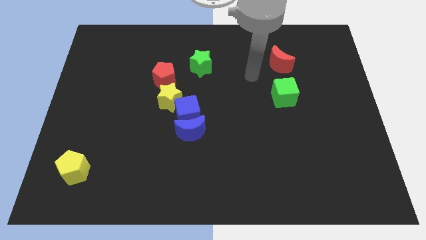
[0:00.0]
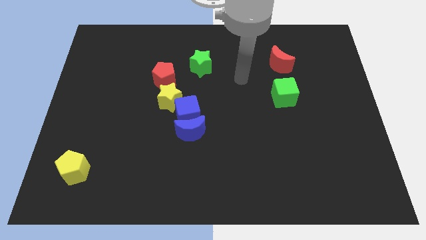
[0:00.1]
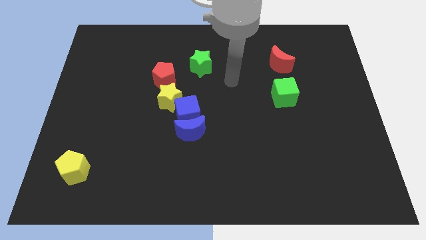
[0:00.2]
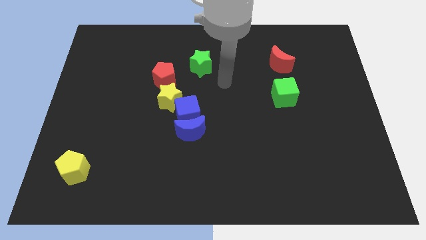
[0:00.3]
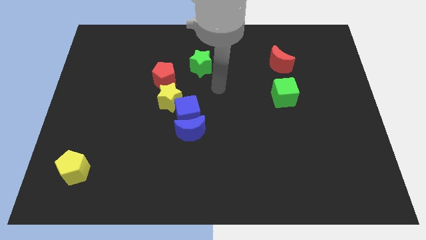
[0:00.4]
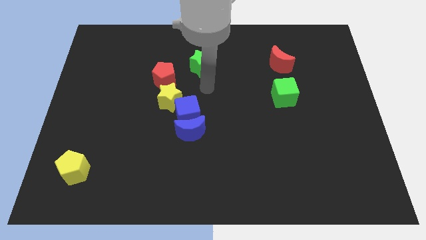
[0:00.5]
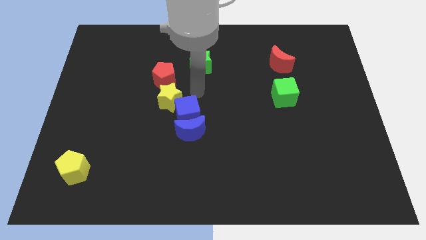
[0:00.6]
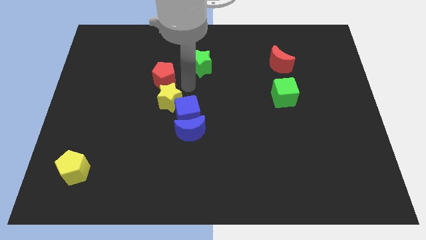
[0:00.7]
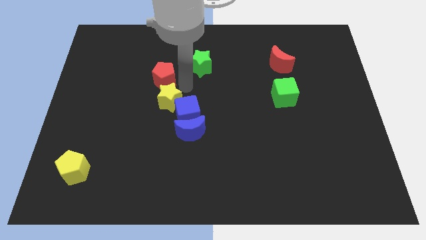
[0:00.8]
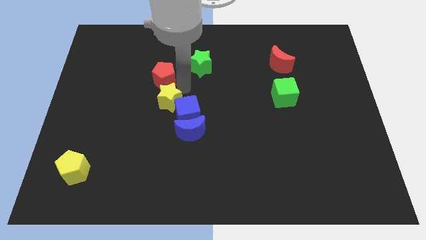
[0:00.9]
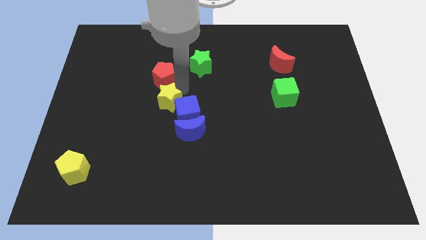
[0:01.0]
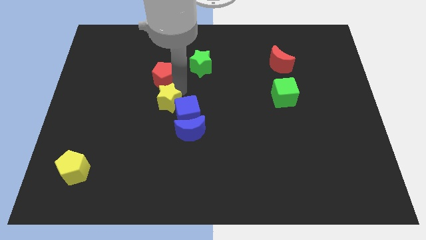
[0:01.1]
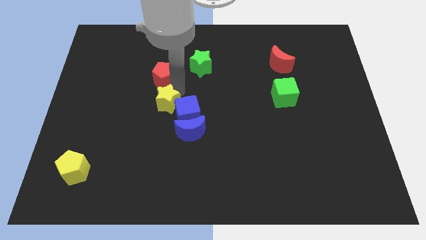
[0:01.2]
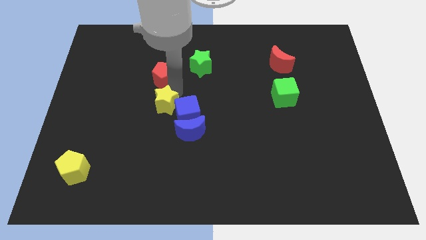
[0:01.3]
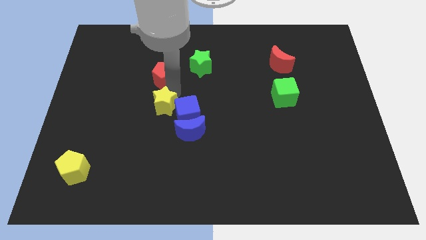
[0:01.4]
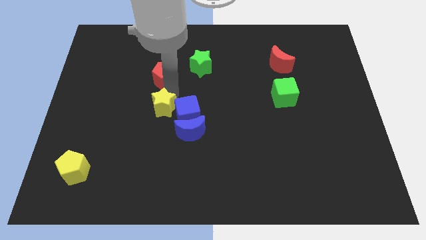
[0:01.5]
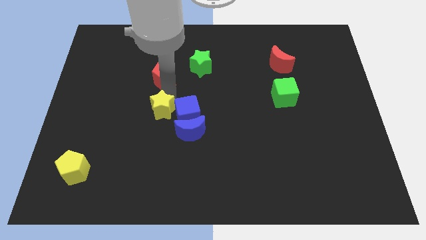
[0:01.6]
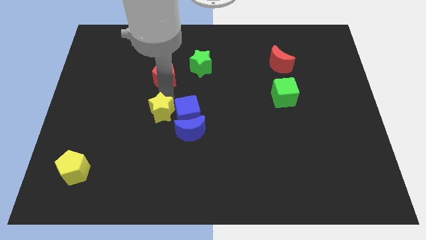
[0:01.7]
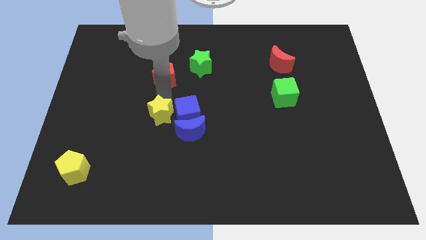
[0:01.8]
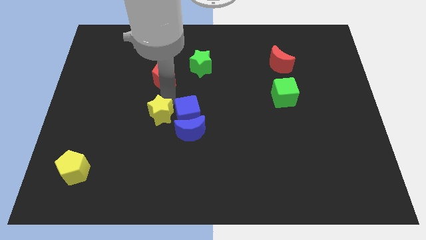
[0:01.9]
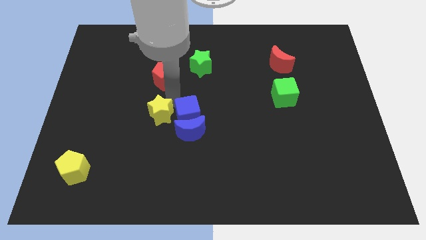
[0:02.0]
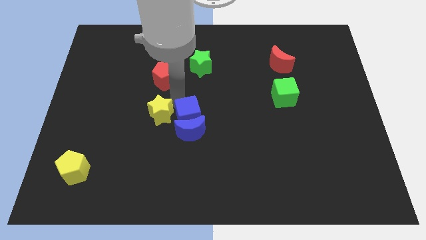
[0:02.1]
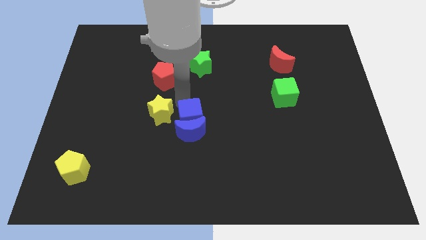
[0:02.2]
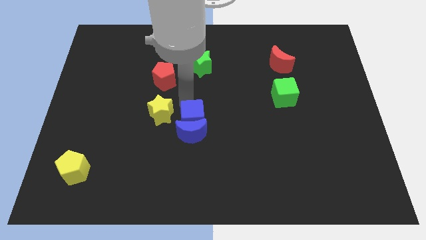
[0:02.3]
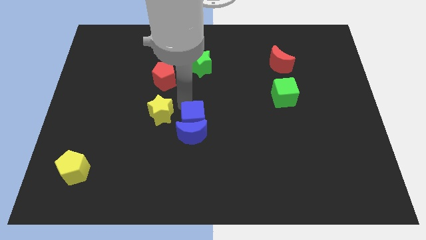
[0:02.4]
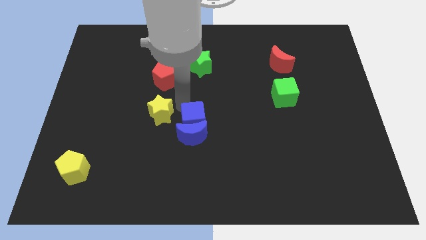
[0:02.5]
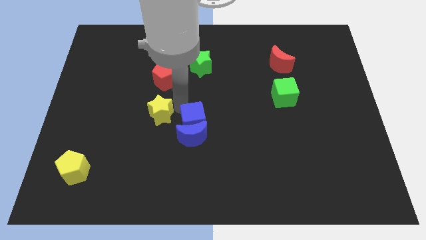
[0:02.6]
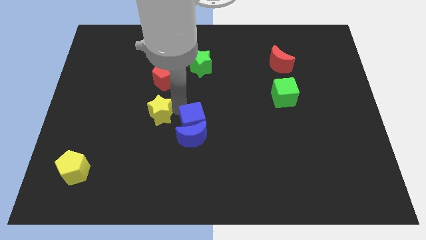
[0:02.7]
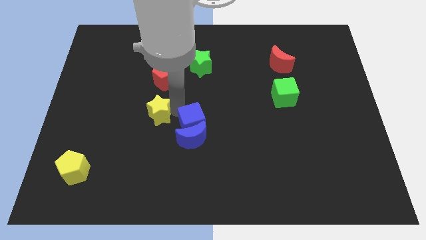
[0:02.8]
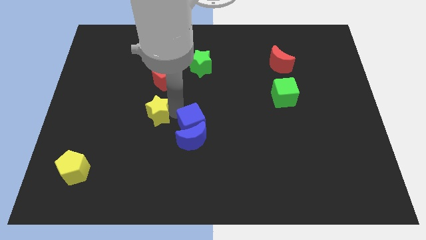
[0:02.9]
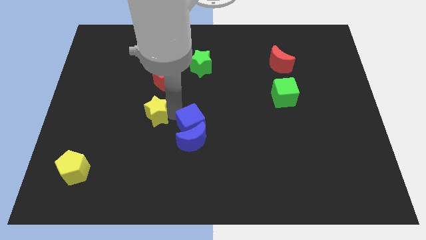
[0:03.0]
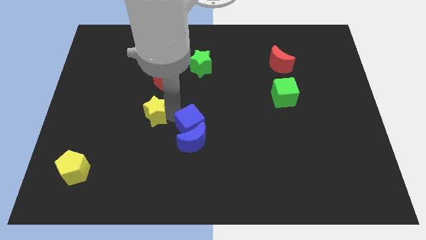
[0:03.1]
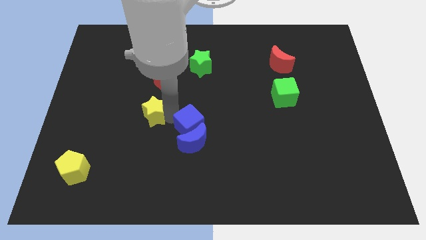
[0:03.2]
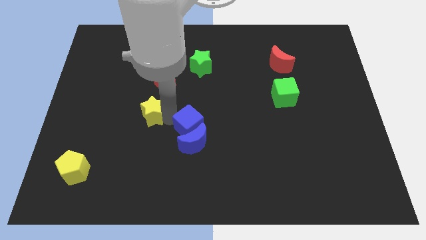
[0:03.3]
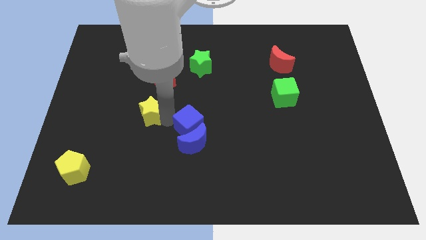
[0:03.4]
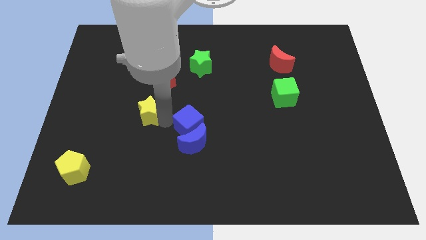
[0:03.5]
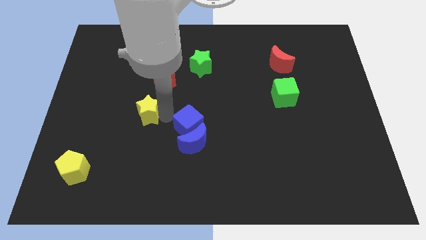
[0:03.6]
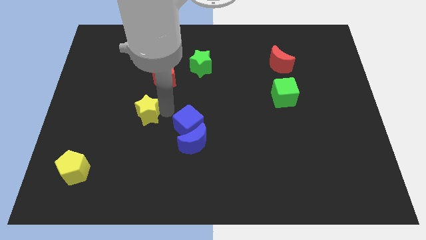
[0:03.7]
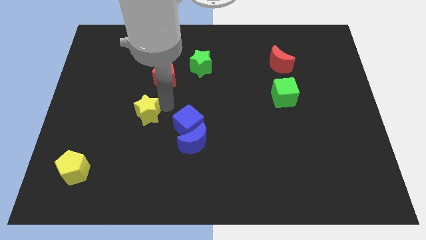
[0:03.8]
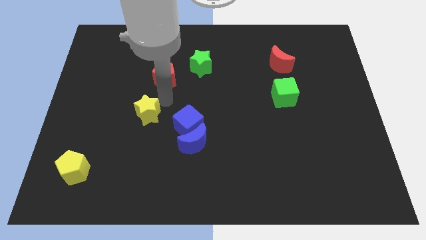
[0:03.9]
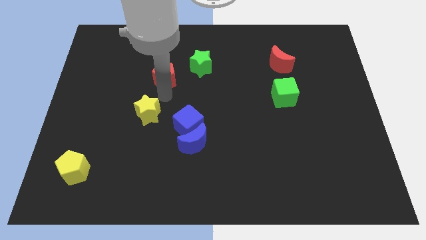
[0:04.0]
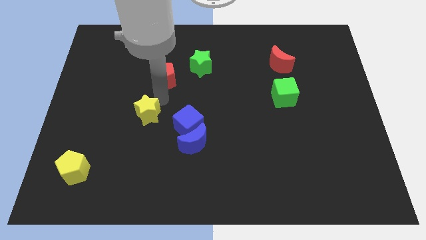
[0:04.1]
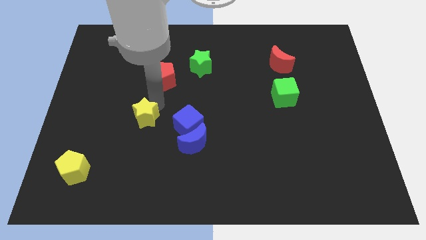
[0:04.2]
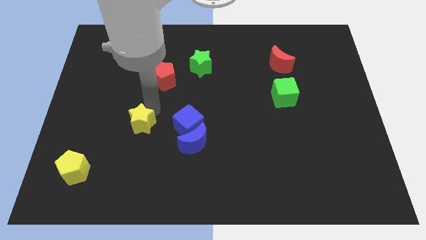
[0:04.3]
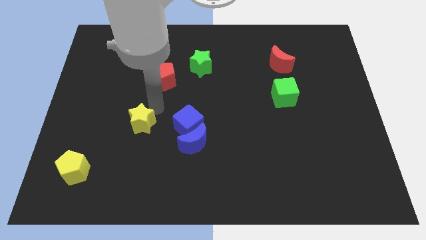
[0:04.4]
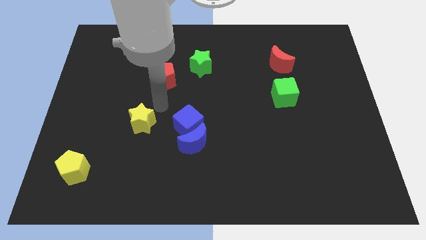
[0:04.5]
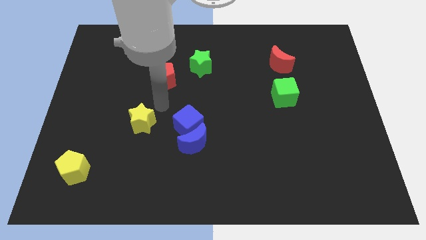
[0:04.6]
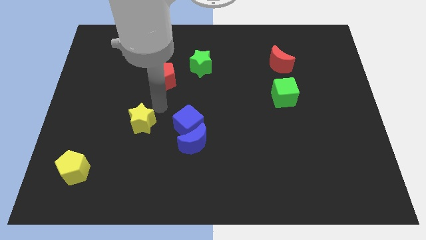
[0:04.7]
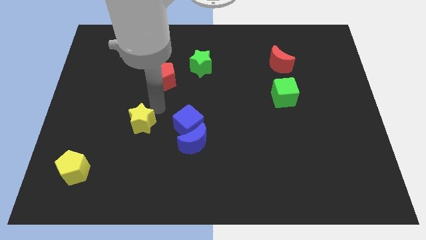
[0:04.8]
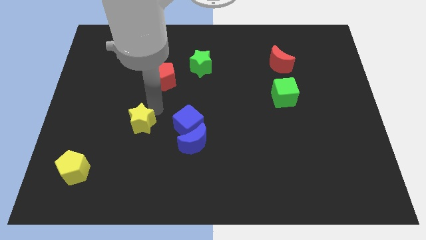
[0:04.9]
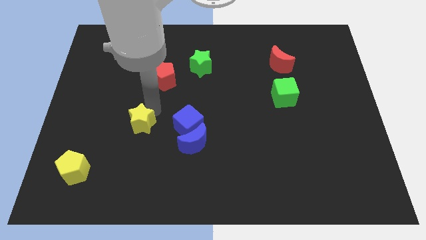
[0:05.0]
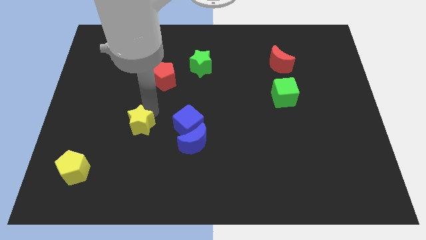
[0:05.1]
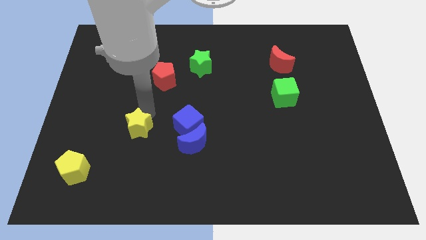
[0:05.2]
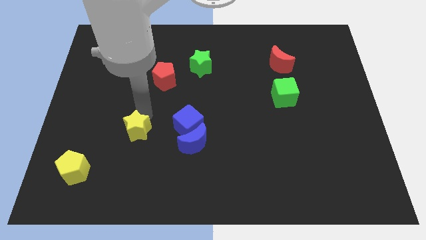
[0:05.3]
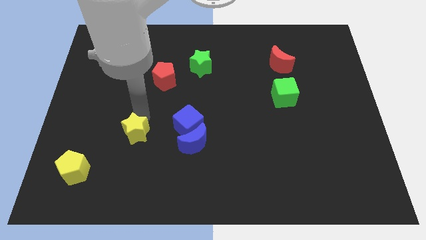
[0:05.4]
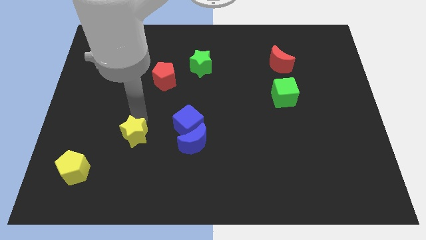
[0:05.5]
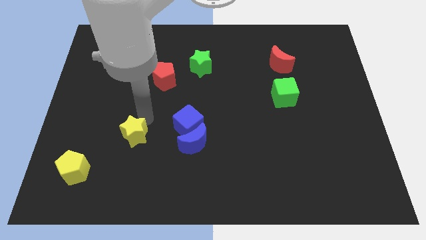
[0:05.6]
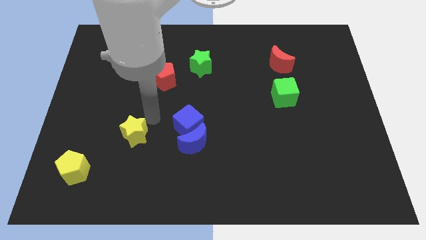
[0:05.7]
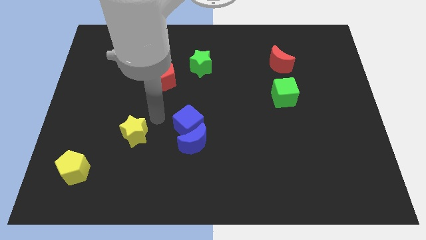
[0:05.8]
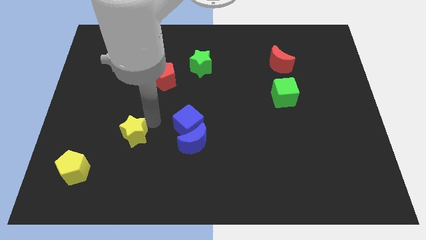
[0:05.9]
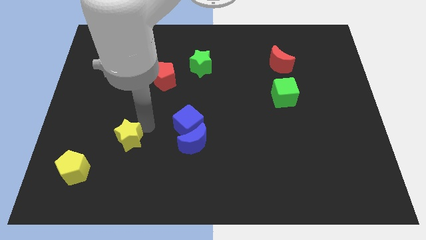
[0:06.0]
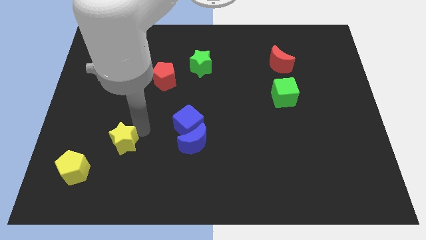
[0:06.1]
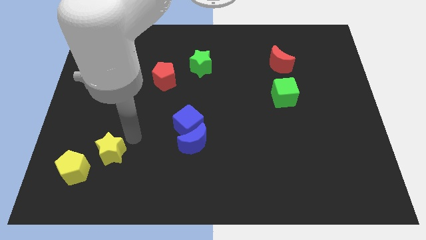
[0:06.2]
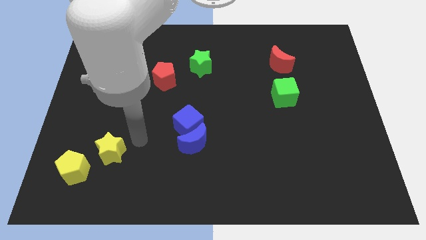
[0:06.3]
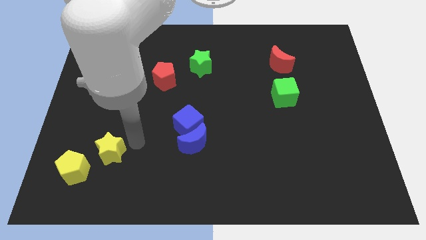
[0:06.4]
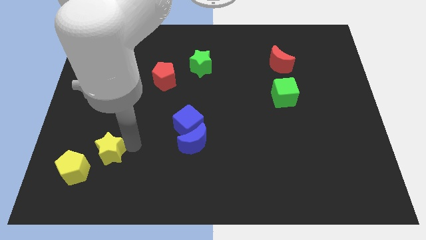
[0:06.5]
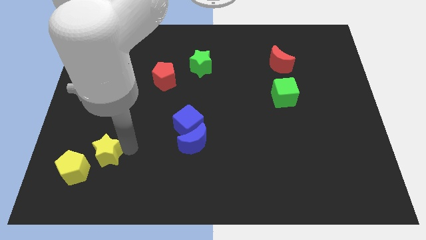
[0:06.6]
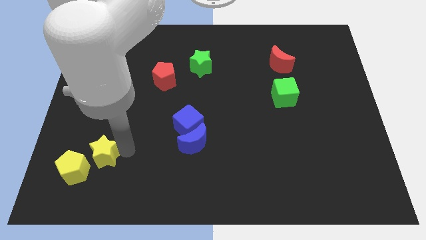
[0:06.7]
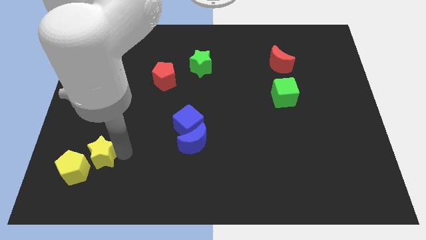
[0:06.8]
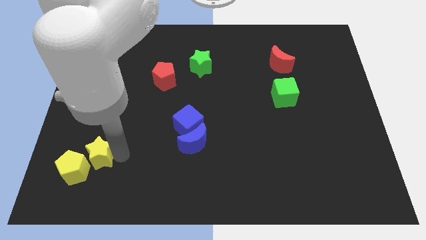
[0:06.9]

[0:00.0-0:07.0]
move the yellow star close to the yellow pentagon

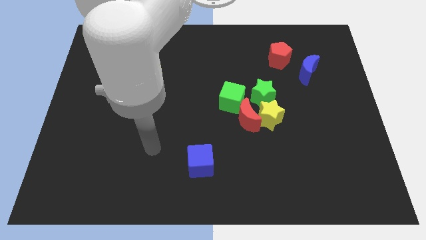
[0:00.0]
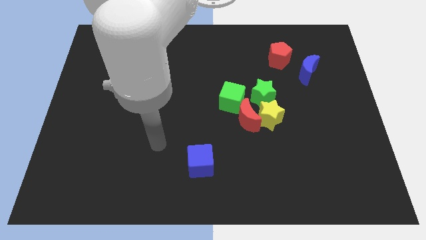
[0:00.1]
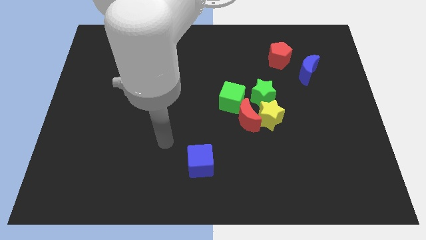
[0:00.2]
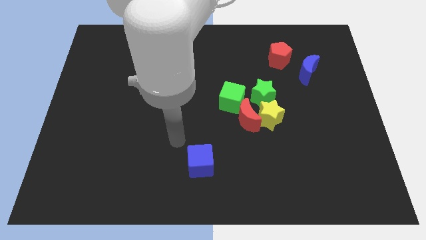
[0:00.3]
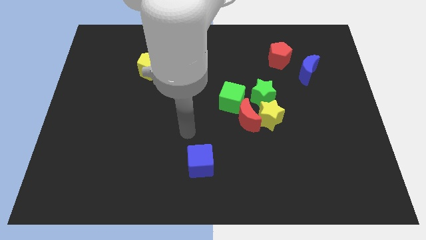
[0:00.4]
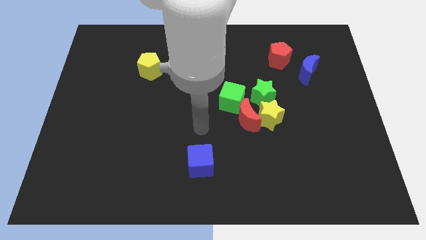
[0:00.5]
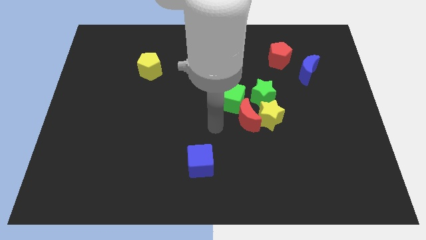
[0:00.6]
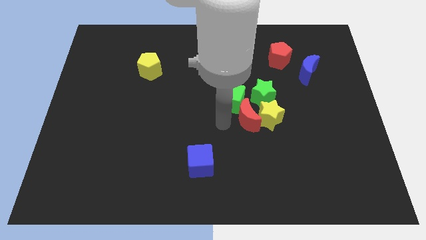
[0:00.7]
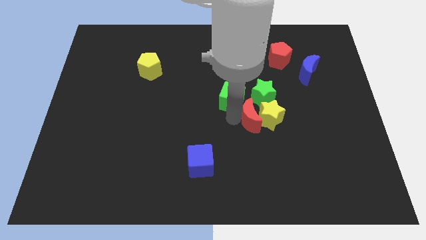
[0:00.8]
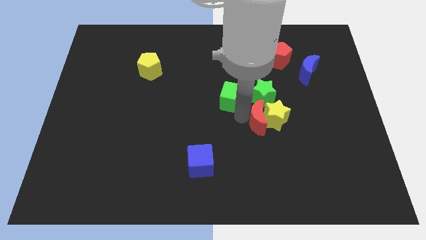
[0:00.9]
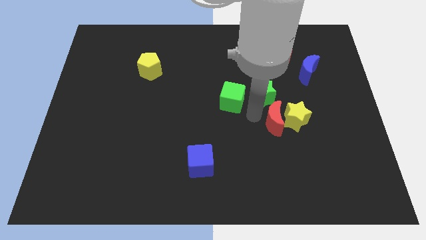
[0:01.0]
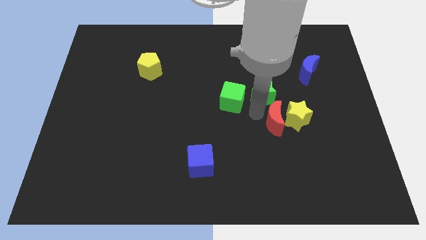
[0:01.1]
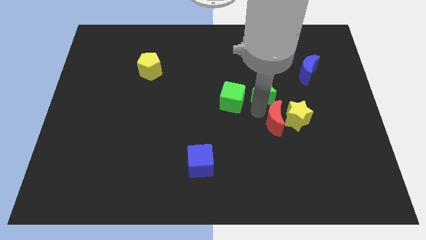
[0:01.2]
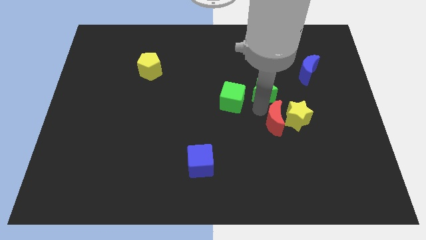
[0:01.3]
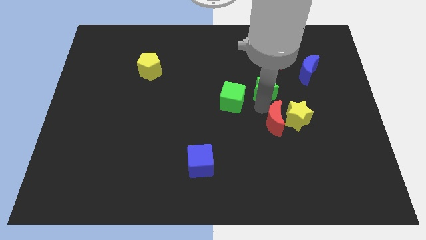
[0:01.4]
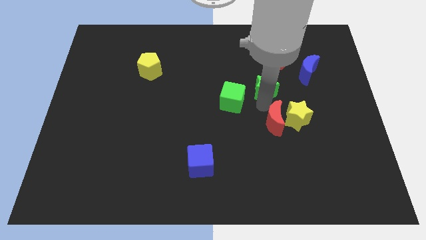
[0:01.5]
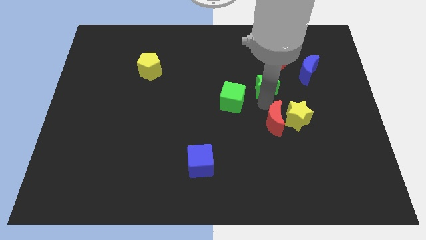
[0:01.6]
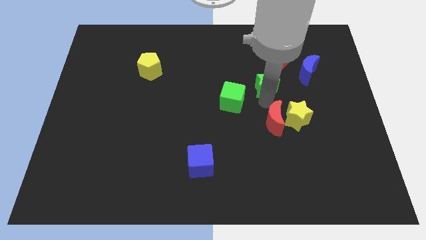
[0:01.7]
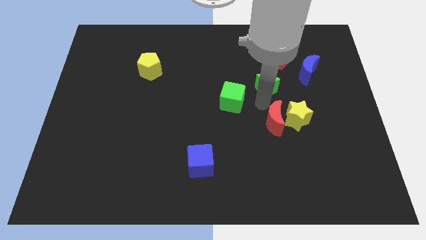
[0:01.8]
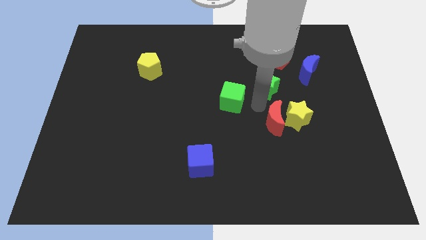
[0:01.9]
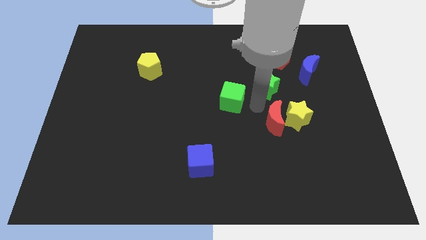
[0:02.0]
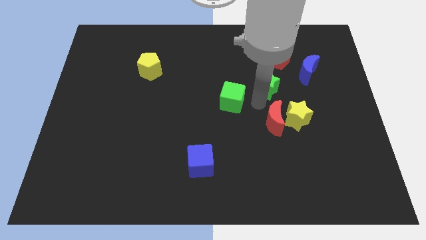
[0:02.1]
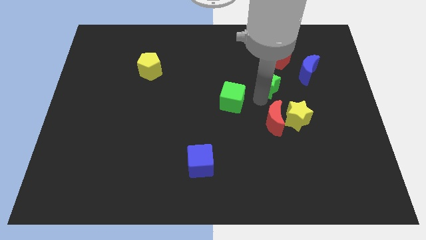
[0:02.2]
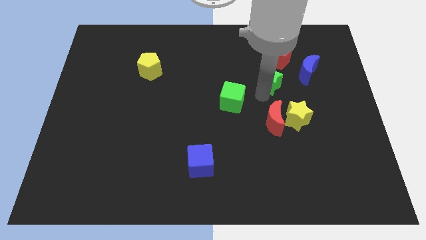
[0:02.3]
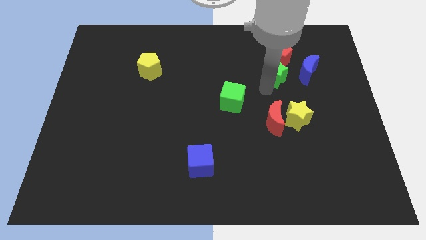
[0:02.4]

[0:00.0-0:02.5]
put the green star next to the red pentagon
